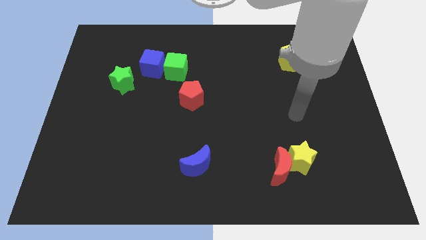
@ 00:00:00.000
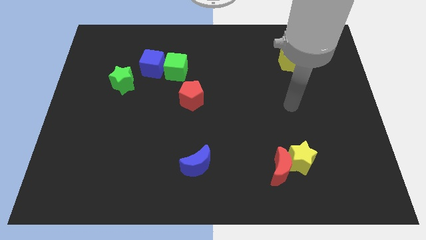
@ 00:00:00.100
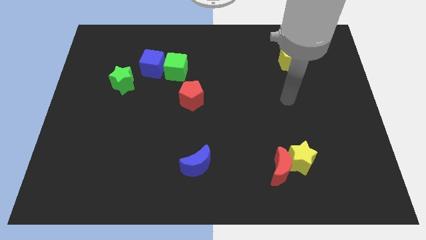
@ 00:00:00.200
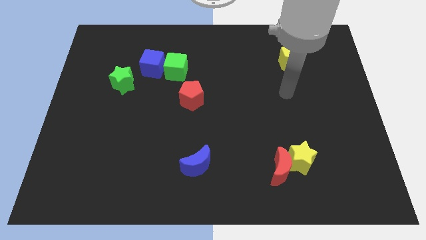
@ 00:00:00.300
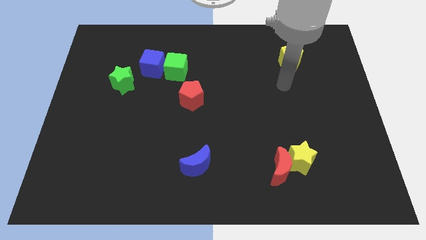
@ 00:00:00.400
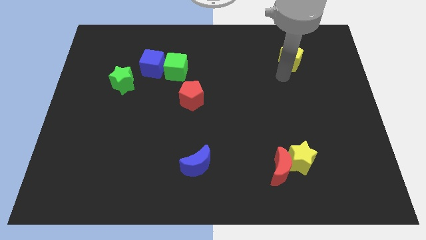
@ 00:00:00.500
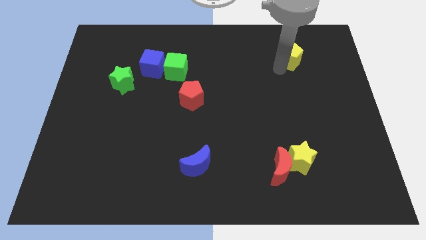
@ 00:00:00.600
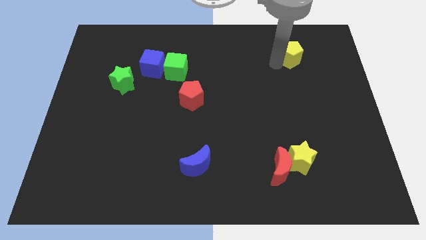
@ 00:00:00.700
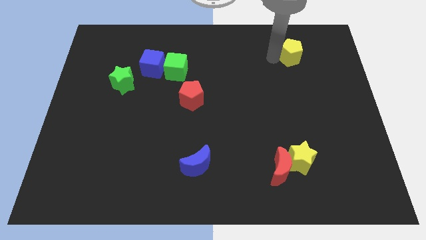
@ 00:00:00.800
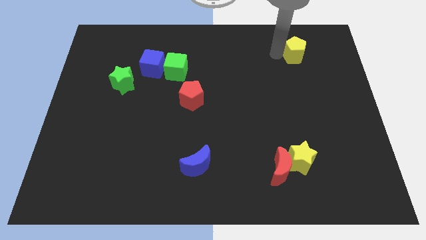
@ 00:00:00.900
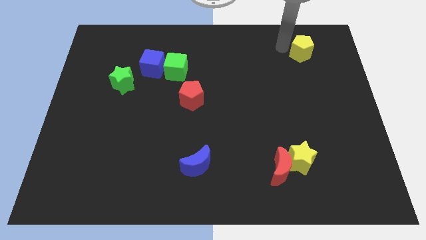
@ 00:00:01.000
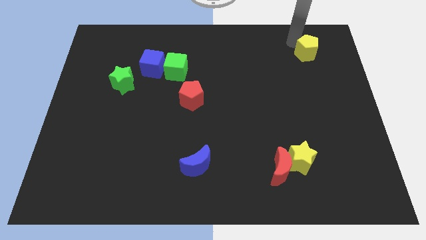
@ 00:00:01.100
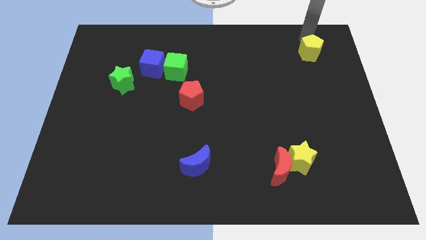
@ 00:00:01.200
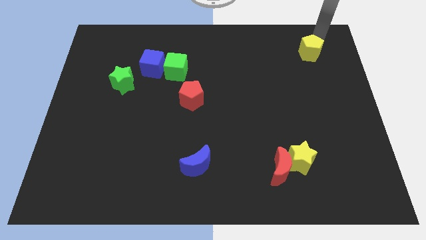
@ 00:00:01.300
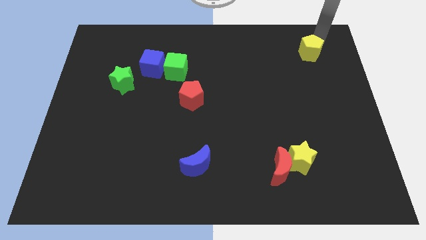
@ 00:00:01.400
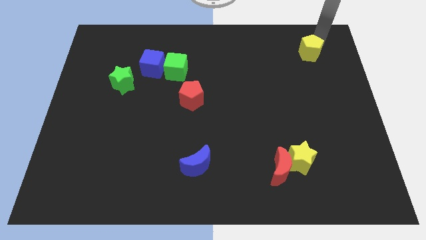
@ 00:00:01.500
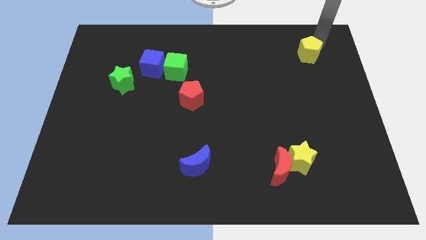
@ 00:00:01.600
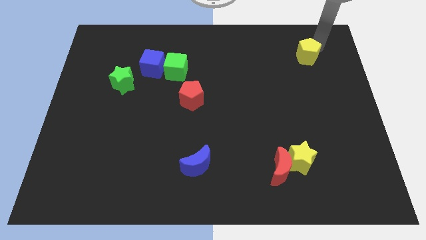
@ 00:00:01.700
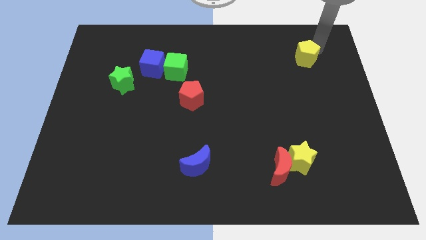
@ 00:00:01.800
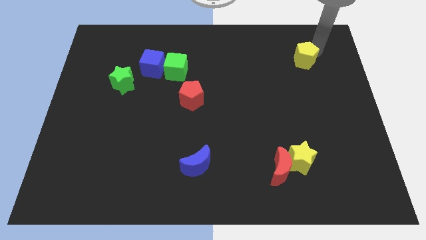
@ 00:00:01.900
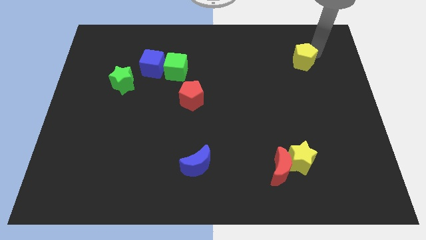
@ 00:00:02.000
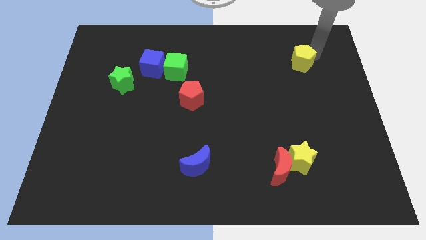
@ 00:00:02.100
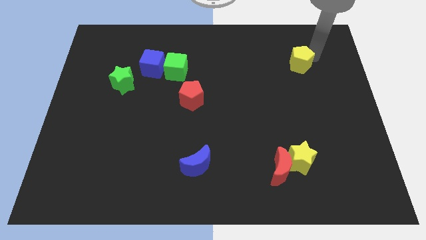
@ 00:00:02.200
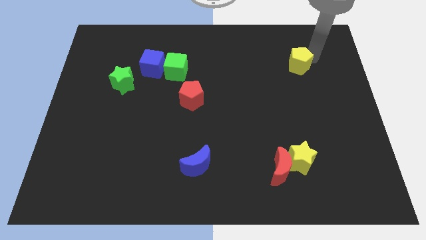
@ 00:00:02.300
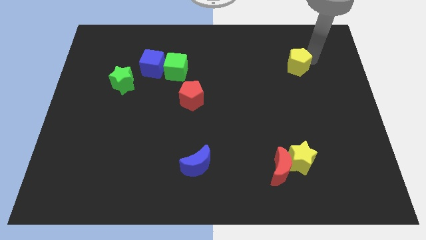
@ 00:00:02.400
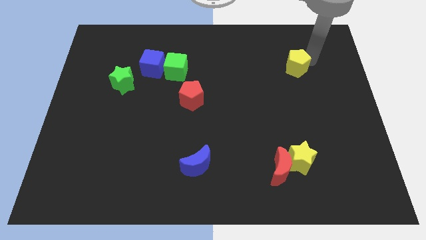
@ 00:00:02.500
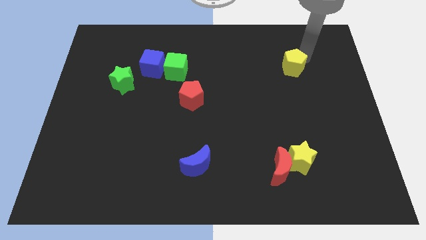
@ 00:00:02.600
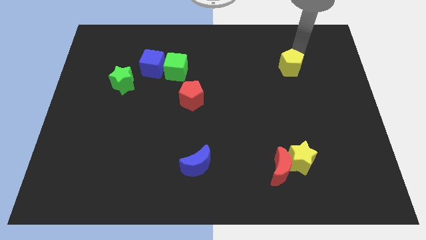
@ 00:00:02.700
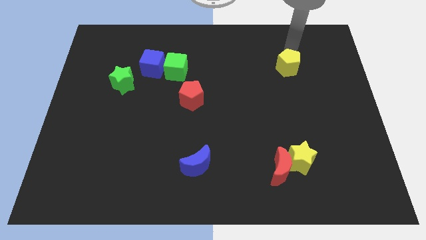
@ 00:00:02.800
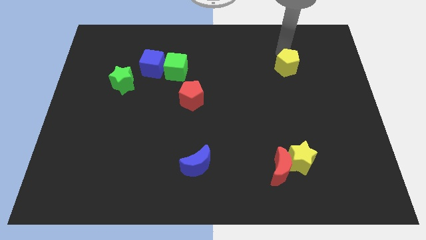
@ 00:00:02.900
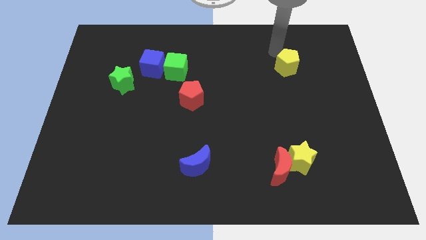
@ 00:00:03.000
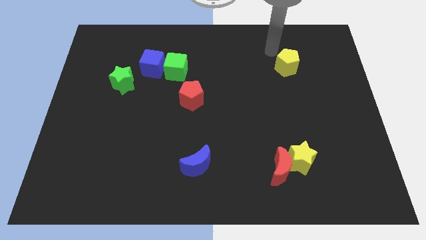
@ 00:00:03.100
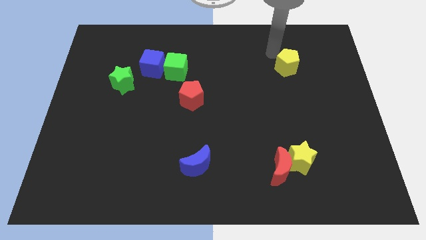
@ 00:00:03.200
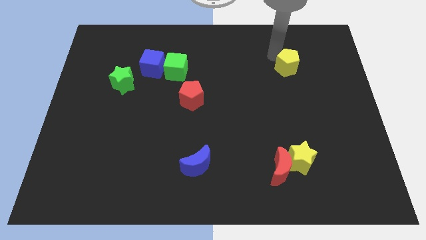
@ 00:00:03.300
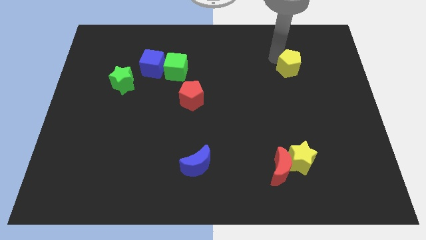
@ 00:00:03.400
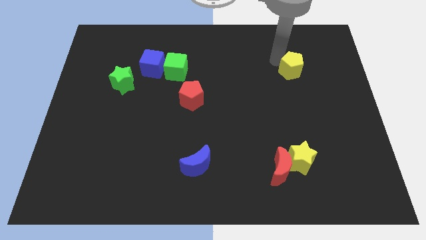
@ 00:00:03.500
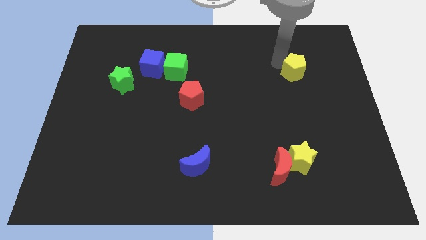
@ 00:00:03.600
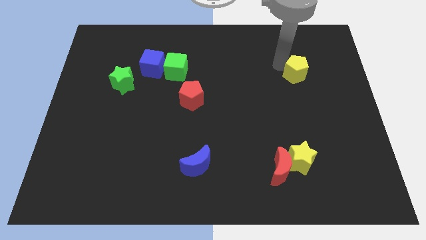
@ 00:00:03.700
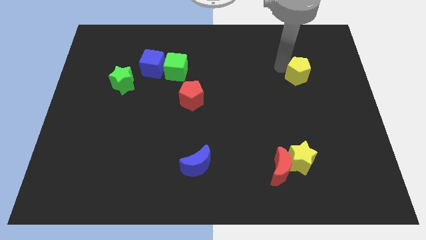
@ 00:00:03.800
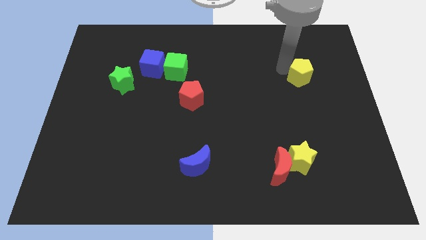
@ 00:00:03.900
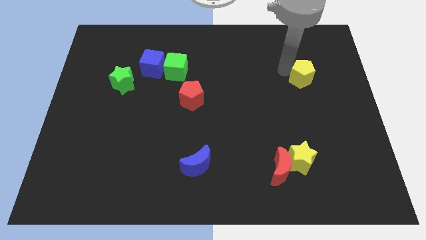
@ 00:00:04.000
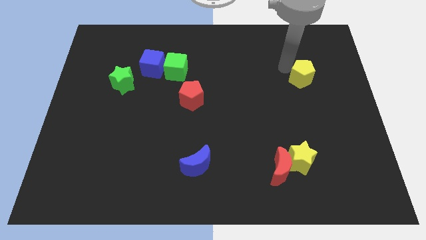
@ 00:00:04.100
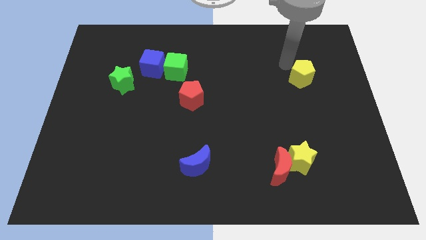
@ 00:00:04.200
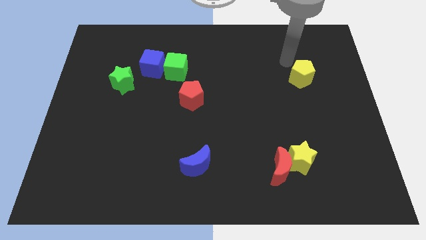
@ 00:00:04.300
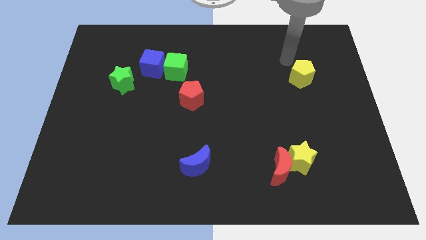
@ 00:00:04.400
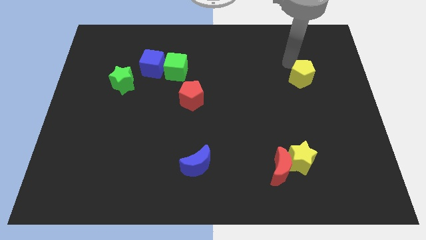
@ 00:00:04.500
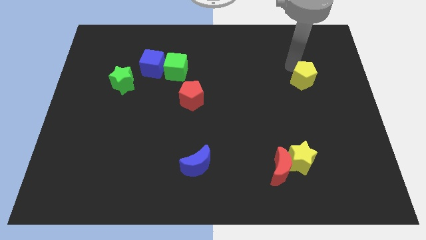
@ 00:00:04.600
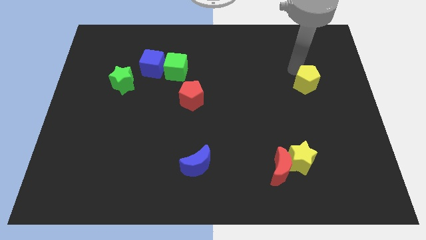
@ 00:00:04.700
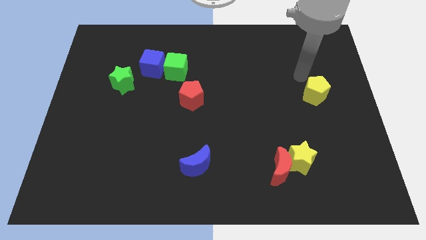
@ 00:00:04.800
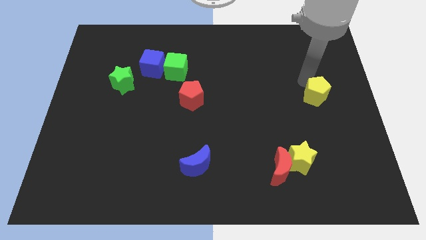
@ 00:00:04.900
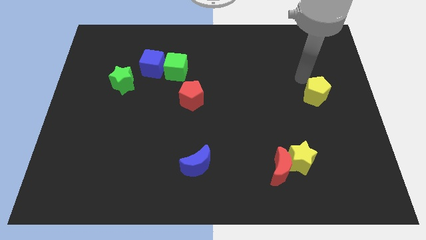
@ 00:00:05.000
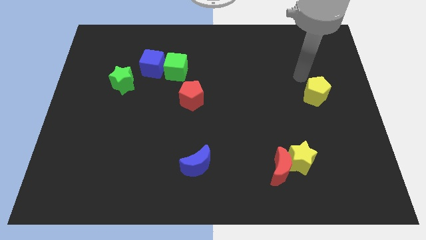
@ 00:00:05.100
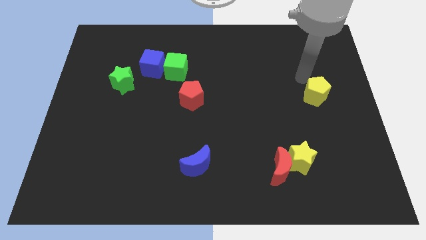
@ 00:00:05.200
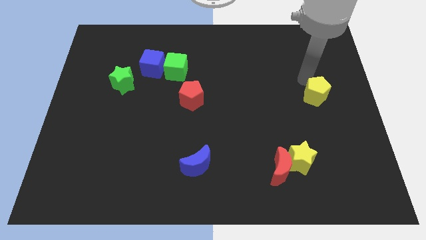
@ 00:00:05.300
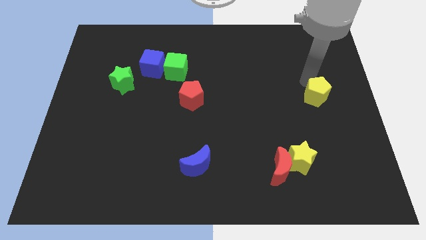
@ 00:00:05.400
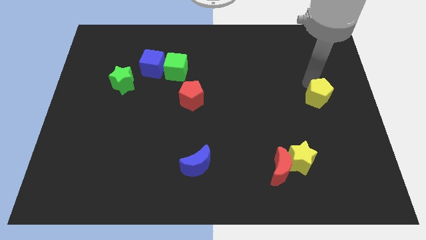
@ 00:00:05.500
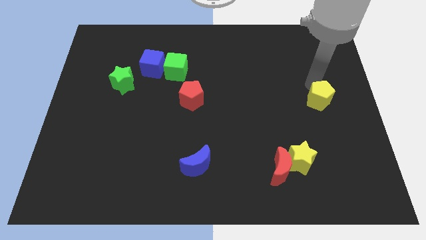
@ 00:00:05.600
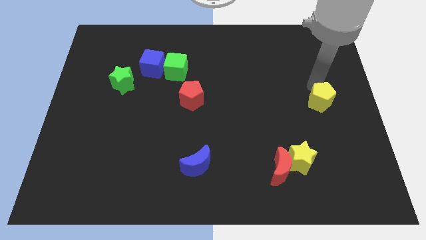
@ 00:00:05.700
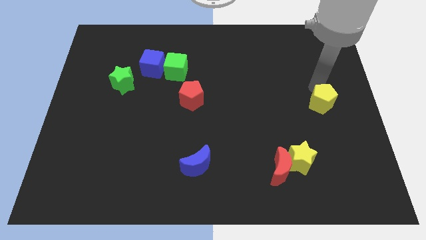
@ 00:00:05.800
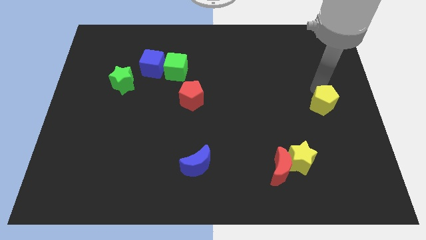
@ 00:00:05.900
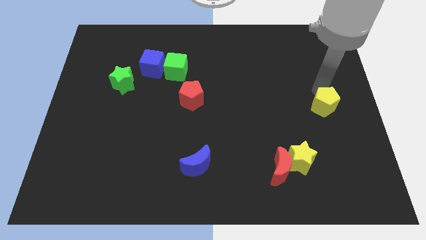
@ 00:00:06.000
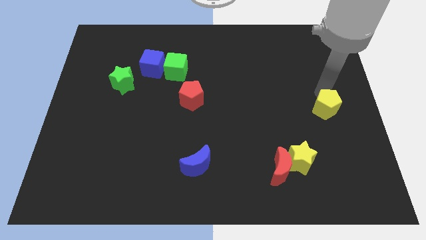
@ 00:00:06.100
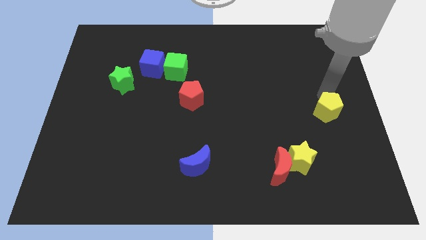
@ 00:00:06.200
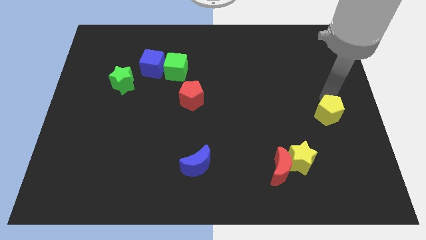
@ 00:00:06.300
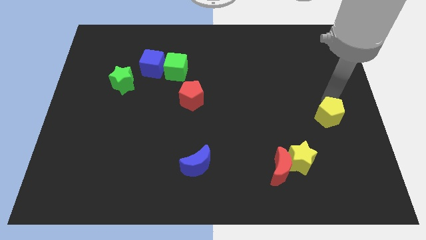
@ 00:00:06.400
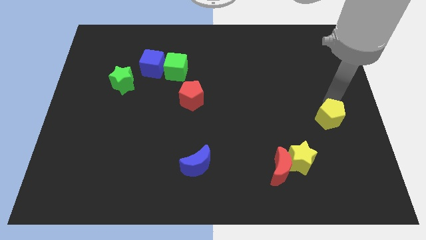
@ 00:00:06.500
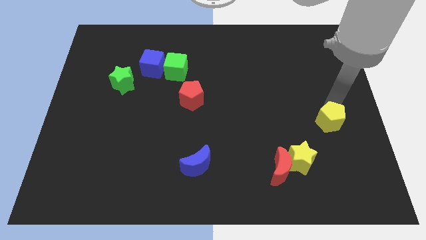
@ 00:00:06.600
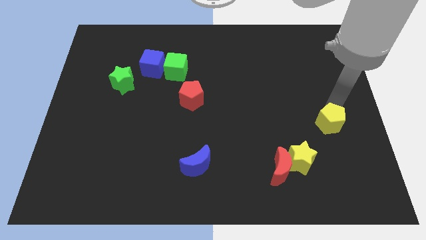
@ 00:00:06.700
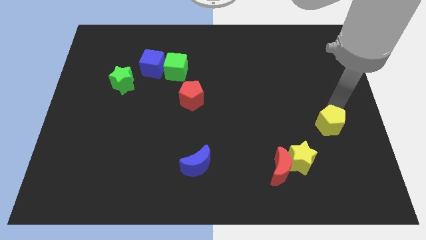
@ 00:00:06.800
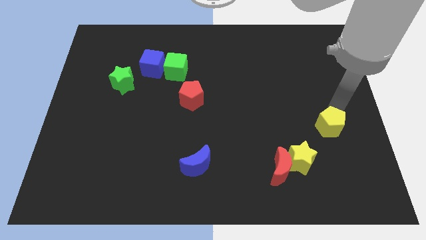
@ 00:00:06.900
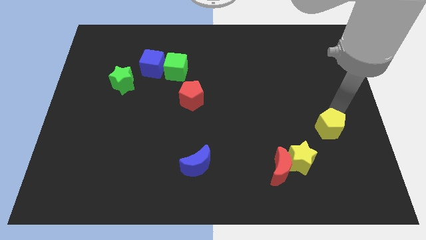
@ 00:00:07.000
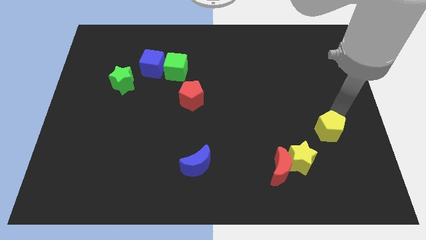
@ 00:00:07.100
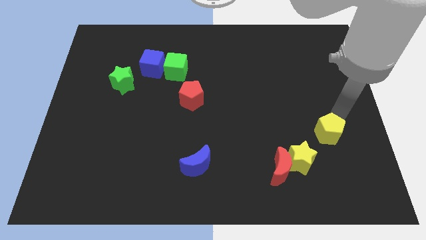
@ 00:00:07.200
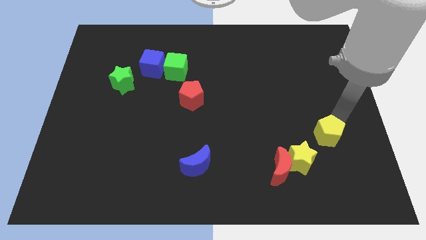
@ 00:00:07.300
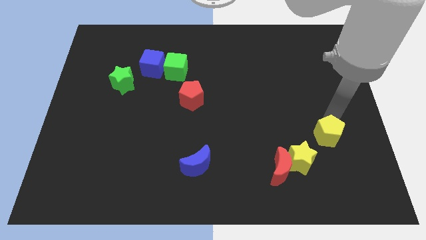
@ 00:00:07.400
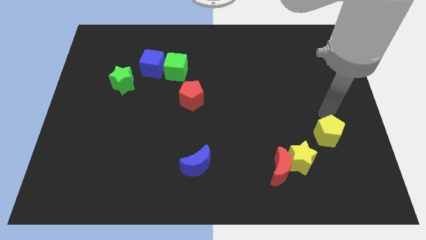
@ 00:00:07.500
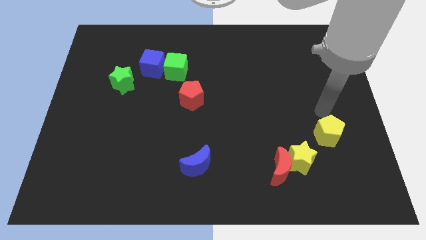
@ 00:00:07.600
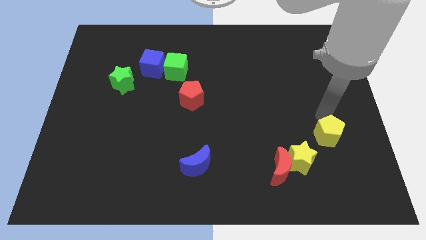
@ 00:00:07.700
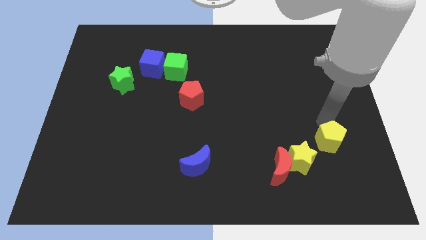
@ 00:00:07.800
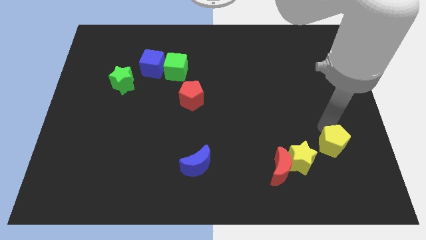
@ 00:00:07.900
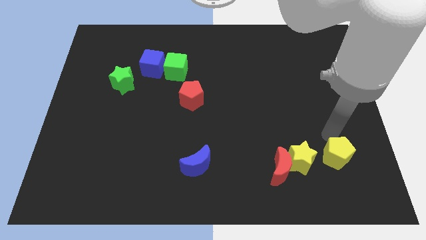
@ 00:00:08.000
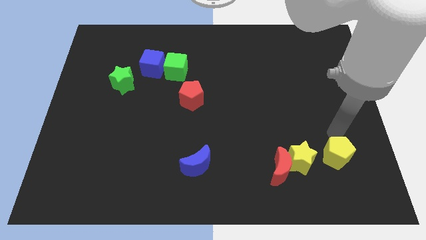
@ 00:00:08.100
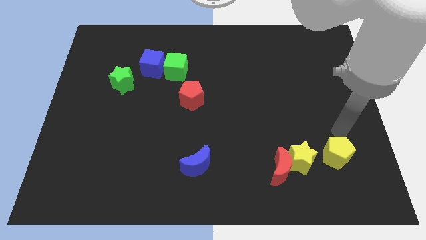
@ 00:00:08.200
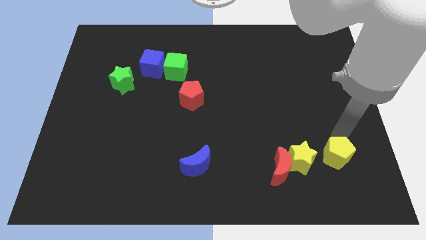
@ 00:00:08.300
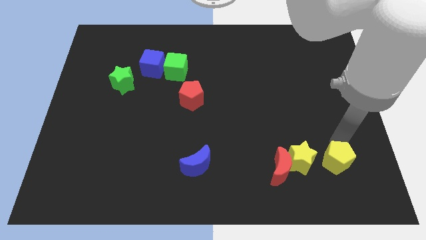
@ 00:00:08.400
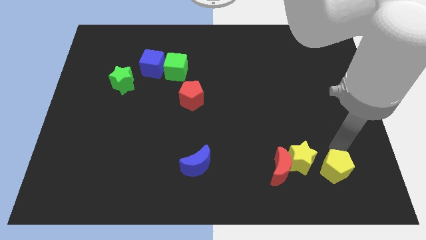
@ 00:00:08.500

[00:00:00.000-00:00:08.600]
push the yellow pentagon to the bottom right of the yellow star
